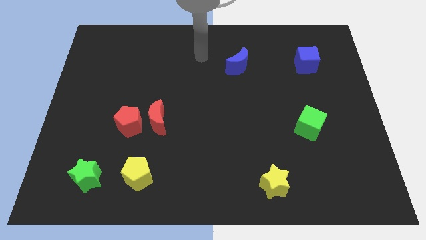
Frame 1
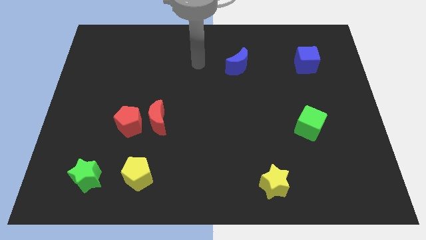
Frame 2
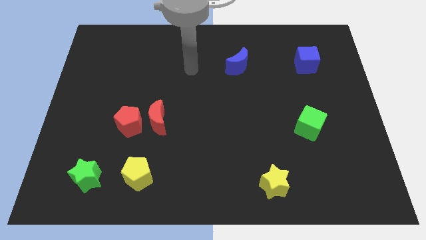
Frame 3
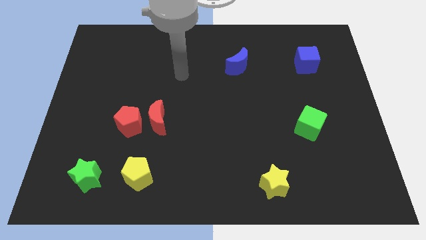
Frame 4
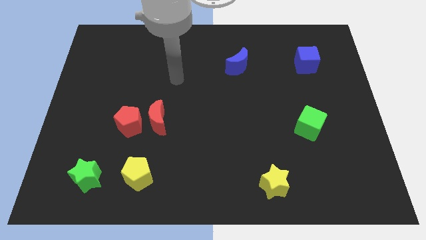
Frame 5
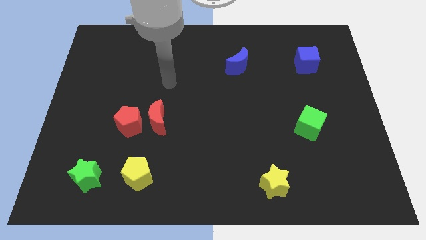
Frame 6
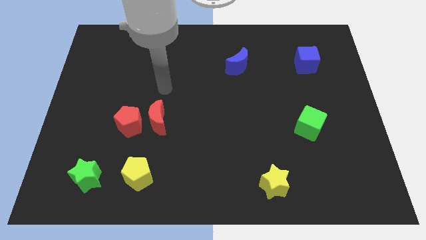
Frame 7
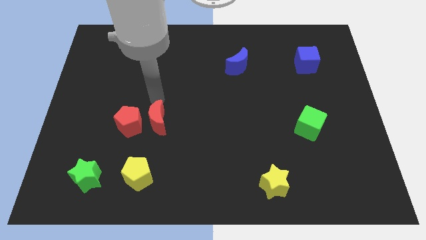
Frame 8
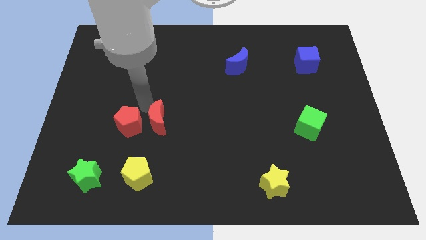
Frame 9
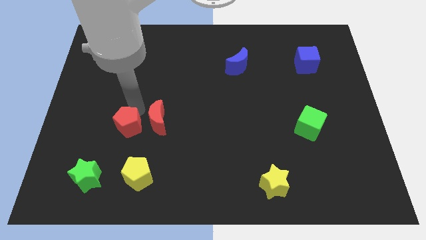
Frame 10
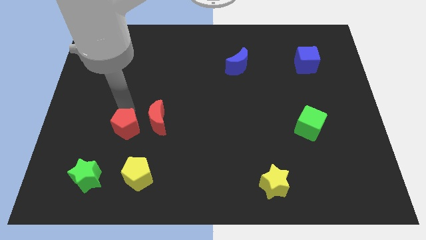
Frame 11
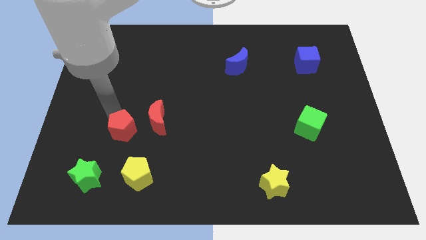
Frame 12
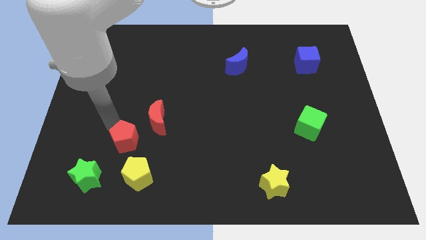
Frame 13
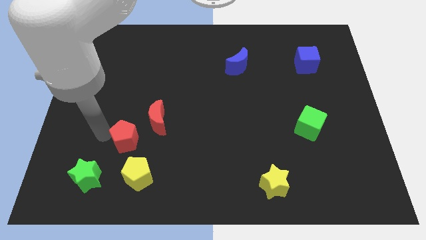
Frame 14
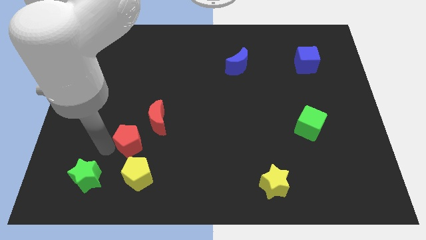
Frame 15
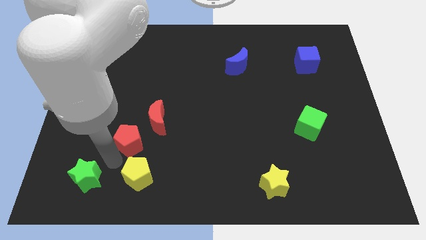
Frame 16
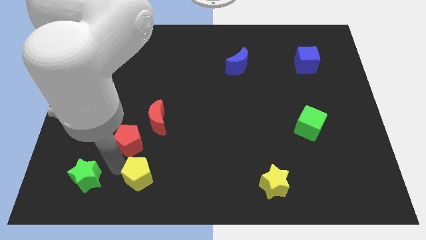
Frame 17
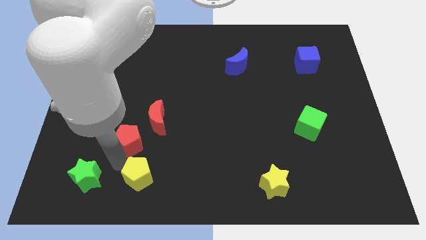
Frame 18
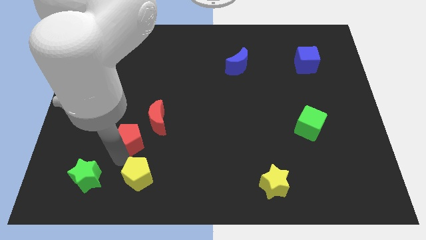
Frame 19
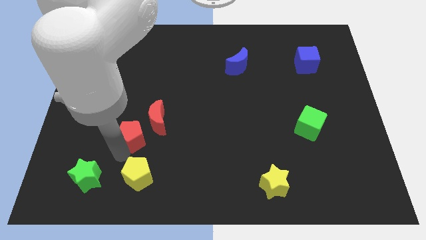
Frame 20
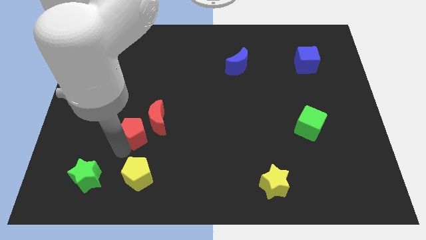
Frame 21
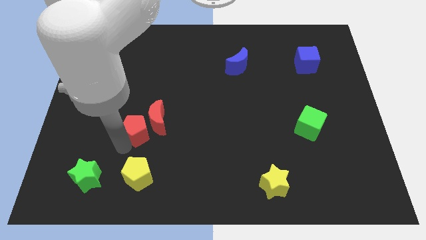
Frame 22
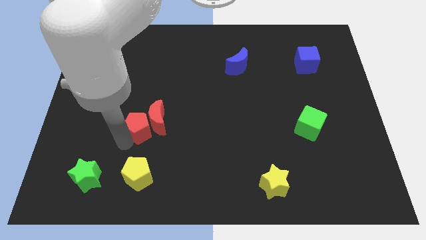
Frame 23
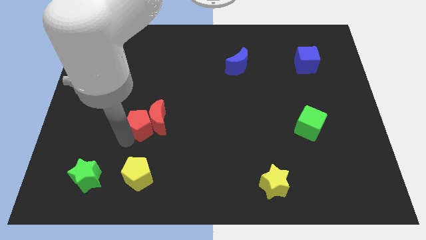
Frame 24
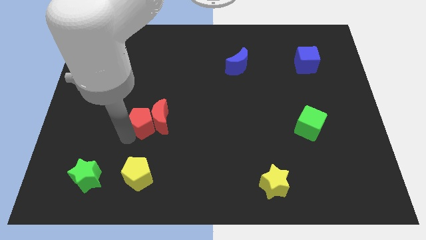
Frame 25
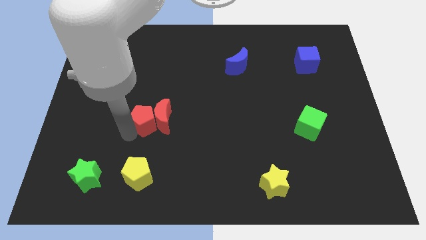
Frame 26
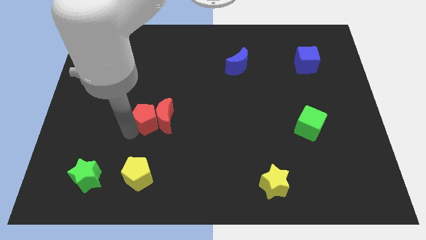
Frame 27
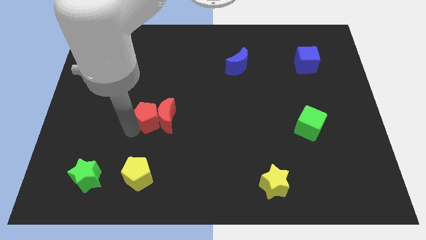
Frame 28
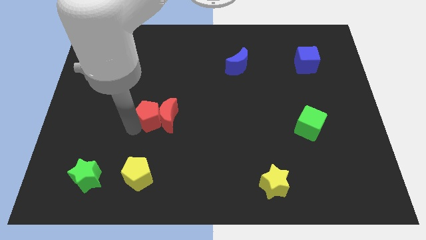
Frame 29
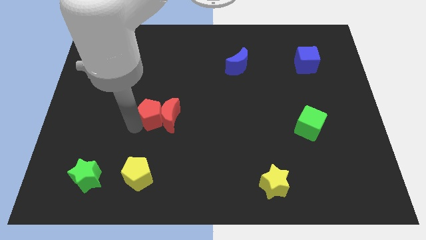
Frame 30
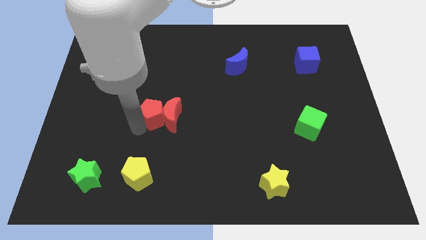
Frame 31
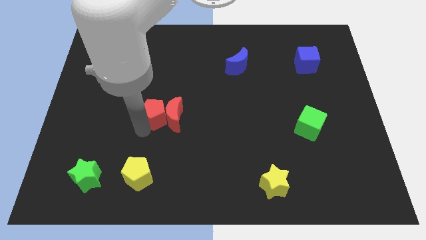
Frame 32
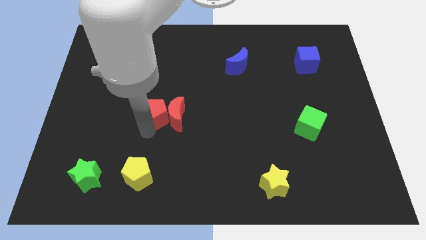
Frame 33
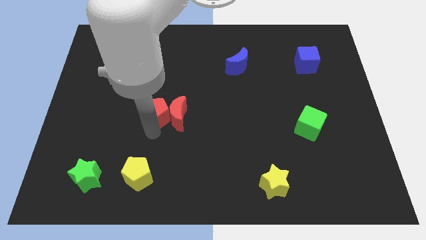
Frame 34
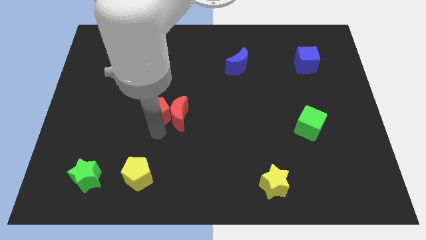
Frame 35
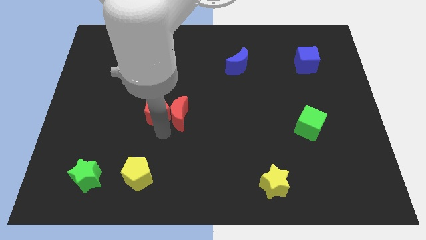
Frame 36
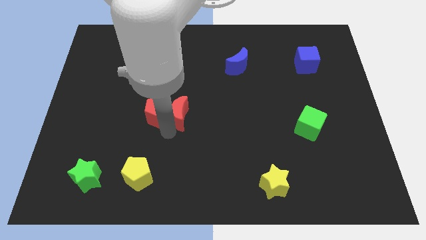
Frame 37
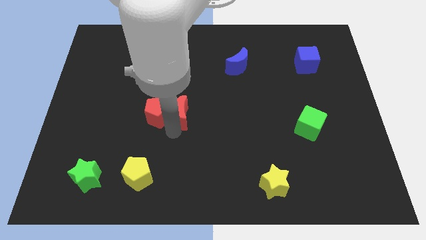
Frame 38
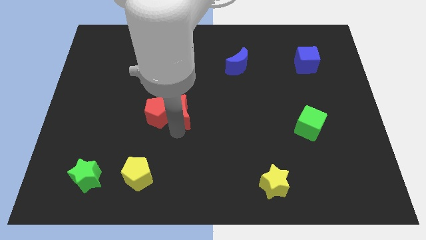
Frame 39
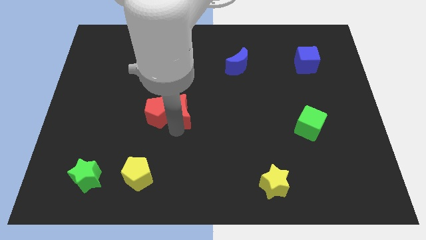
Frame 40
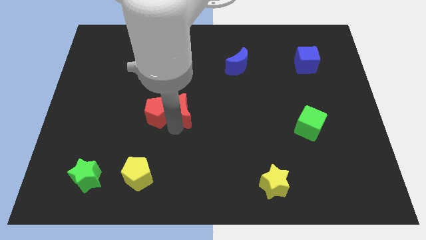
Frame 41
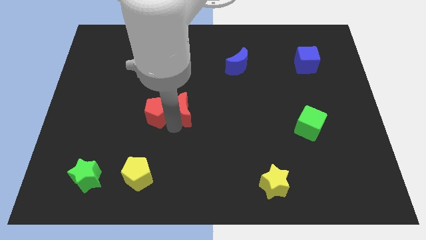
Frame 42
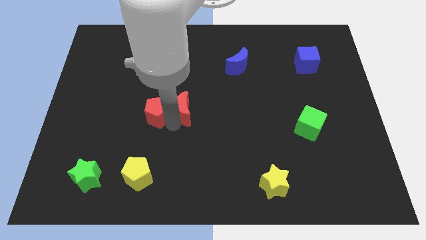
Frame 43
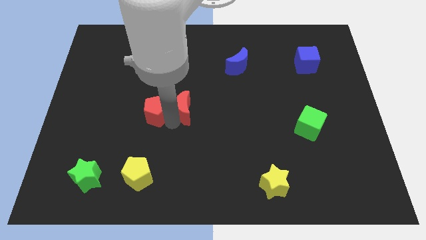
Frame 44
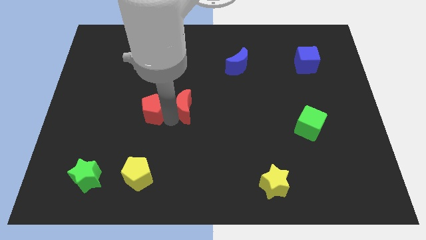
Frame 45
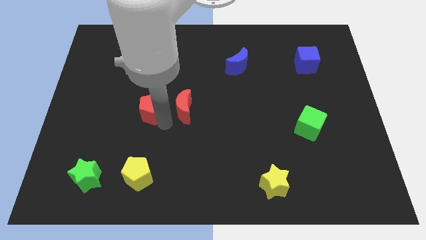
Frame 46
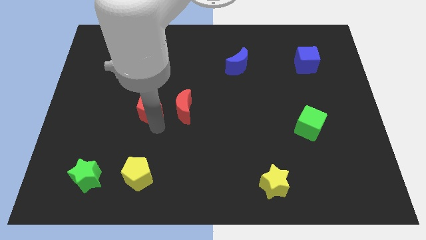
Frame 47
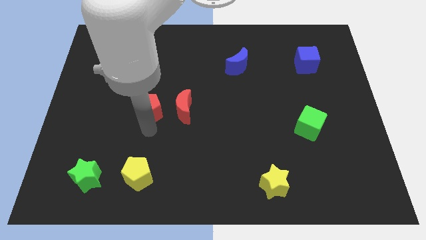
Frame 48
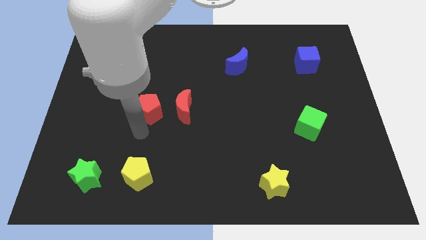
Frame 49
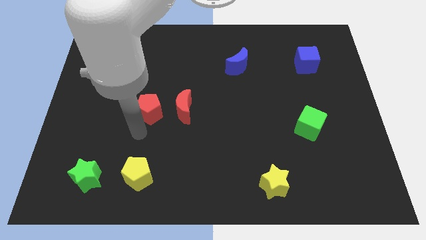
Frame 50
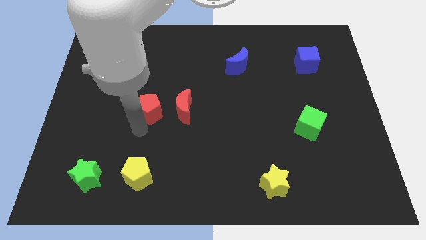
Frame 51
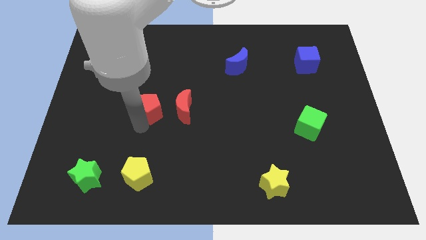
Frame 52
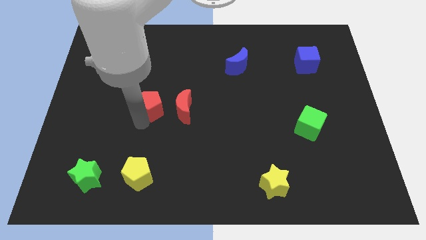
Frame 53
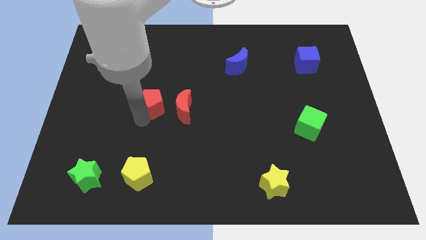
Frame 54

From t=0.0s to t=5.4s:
slide the red pentagon up and to the right somewhat

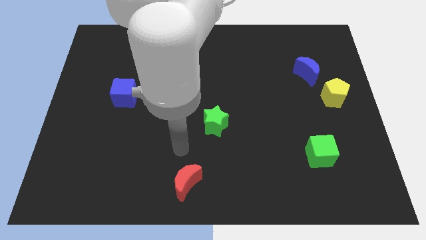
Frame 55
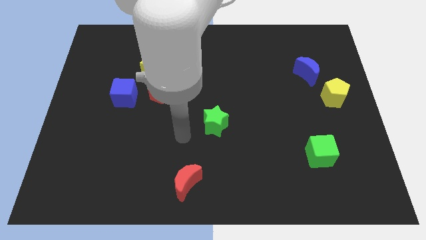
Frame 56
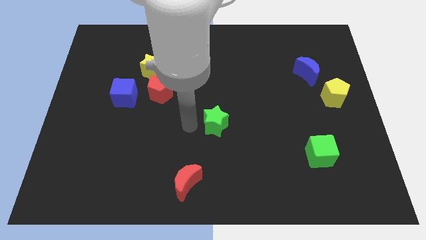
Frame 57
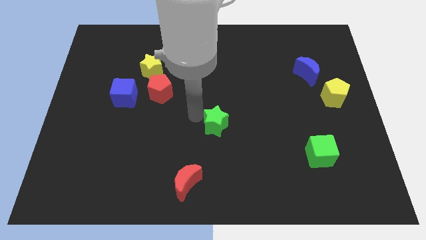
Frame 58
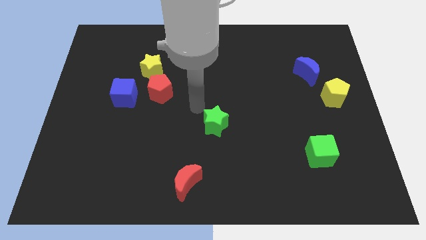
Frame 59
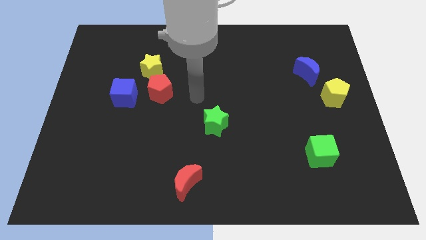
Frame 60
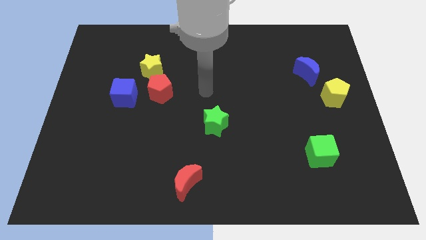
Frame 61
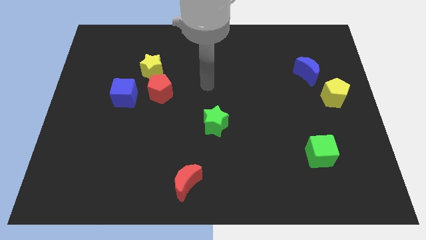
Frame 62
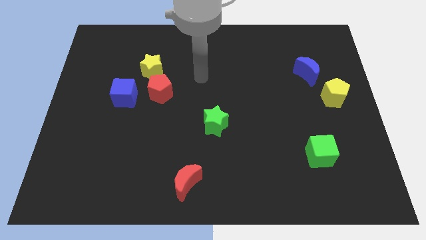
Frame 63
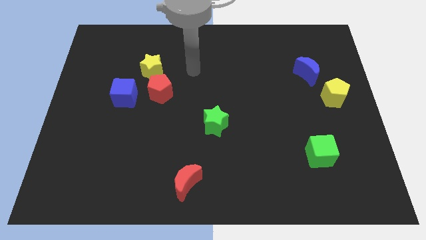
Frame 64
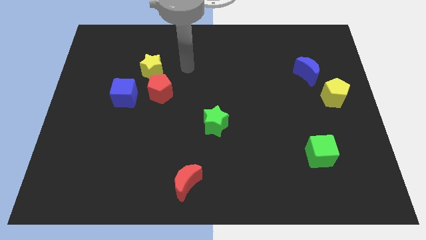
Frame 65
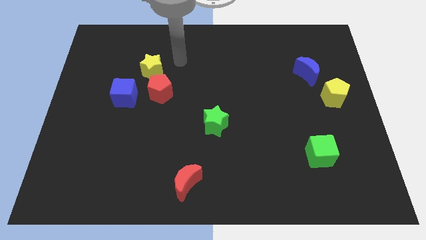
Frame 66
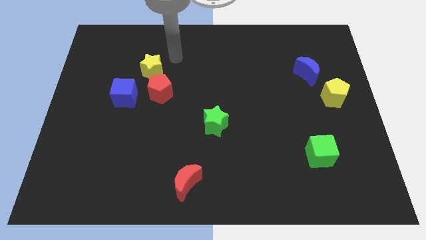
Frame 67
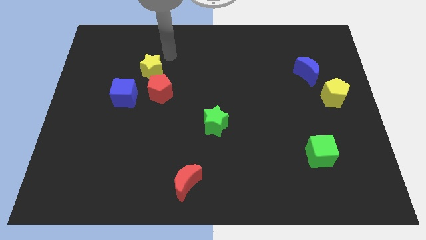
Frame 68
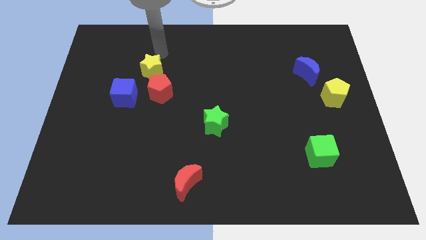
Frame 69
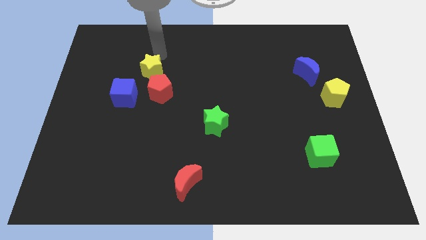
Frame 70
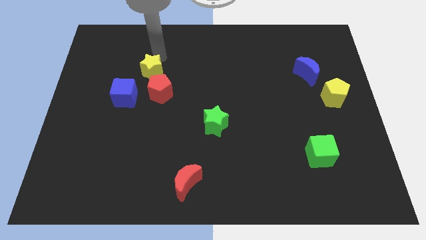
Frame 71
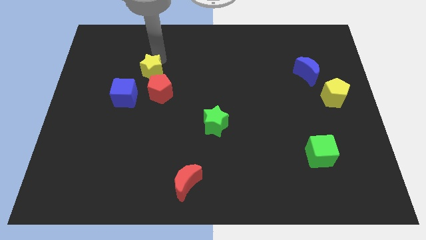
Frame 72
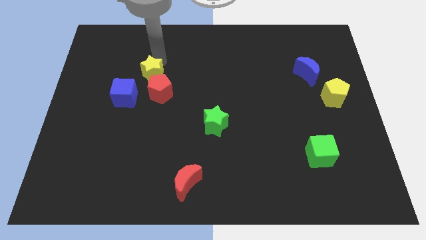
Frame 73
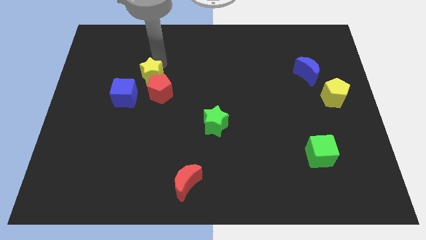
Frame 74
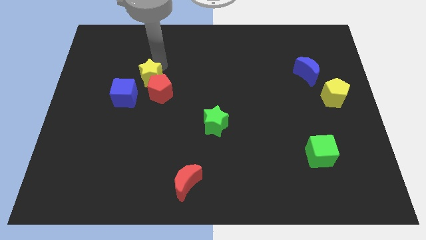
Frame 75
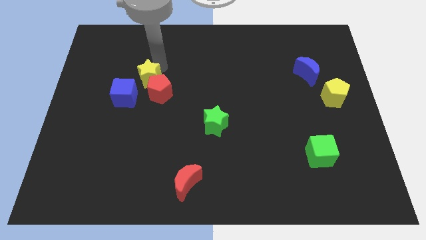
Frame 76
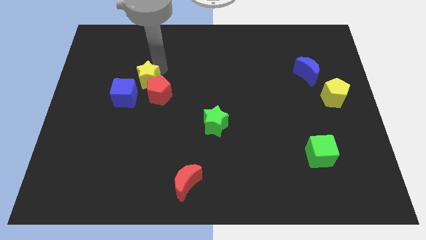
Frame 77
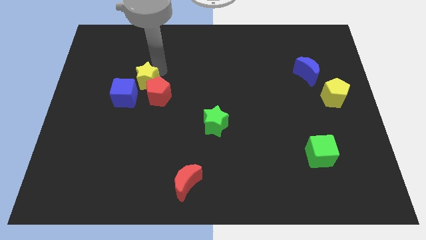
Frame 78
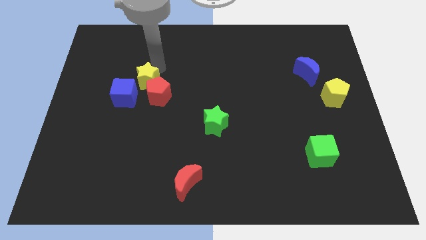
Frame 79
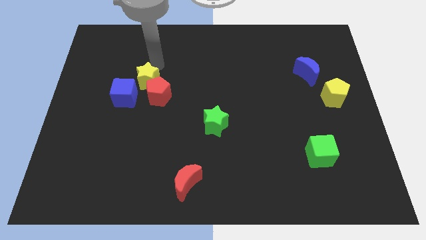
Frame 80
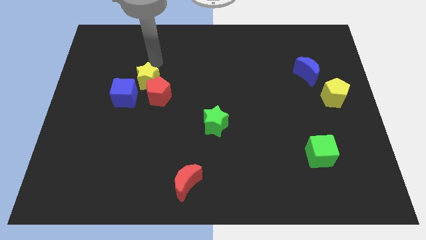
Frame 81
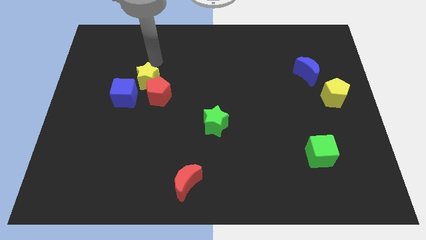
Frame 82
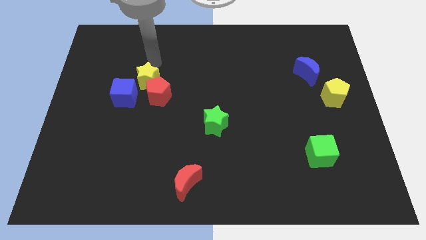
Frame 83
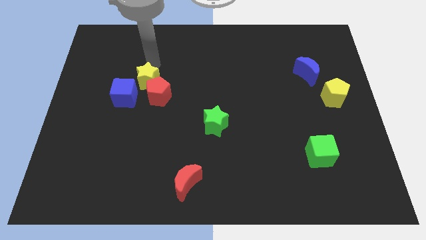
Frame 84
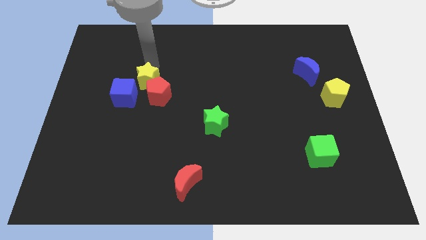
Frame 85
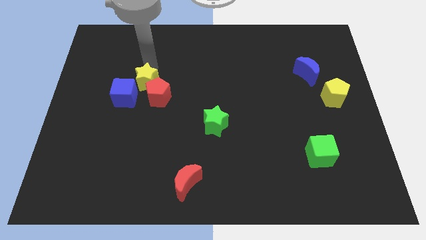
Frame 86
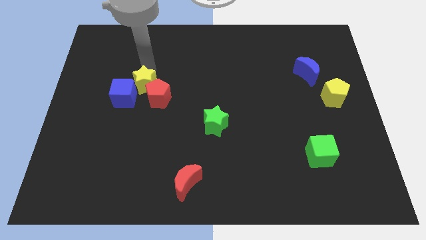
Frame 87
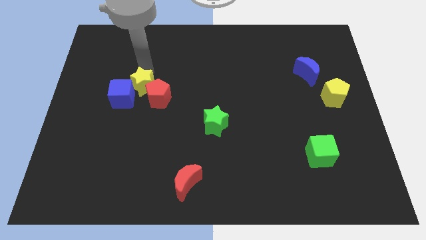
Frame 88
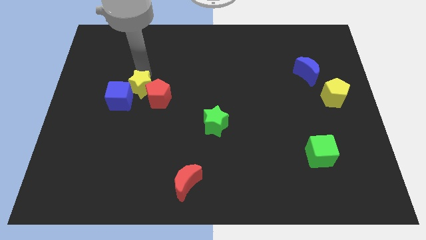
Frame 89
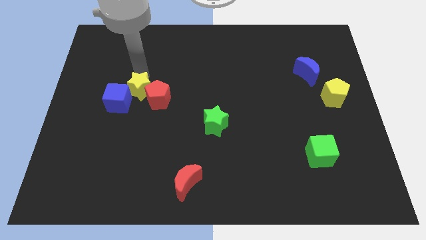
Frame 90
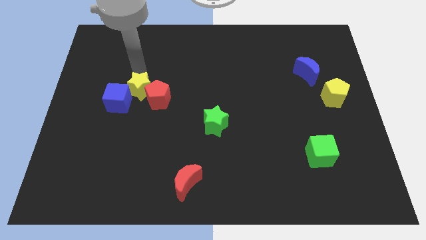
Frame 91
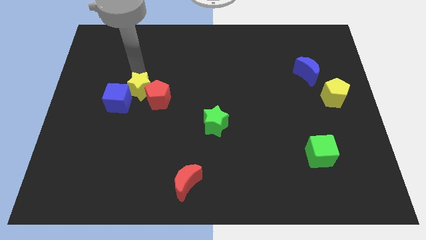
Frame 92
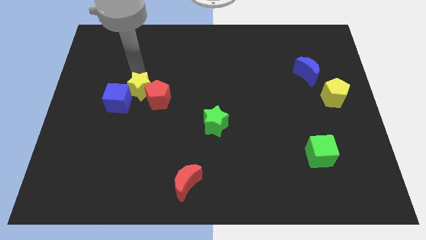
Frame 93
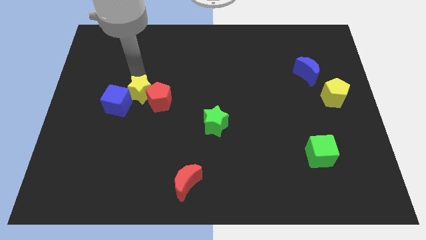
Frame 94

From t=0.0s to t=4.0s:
move the yellow star down a bit
